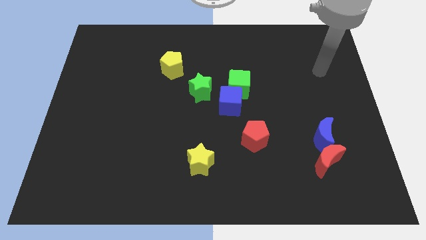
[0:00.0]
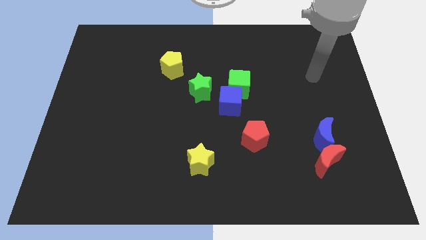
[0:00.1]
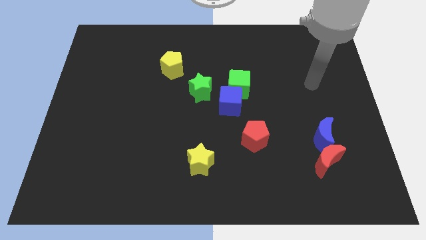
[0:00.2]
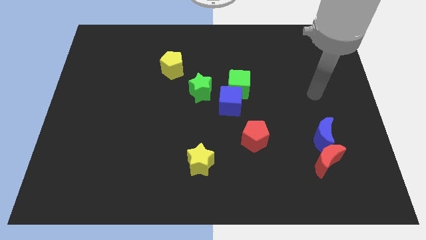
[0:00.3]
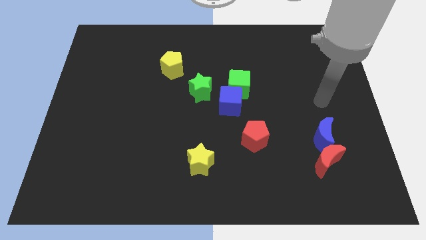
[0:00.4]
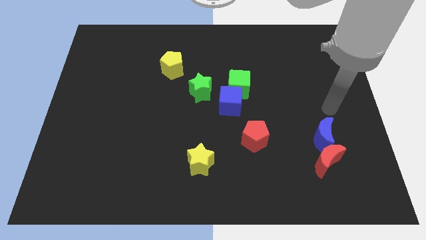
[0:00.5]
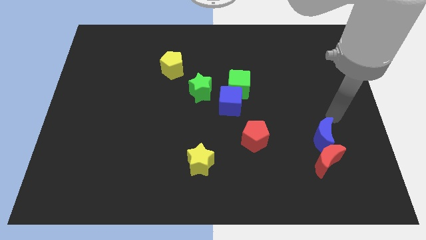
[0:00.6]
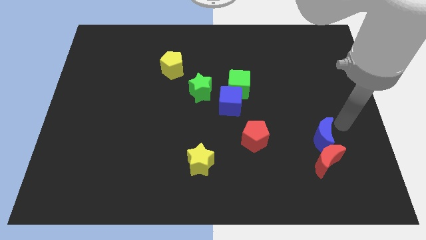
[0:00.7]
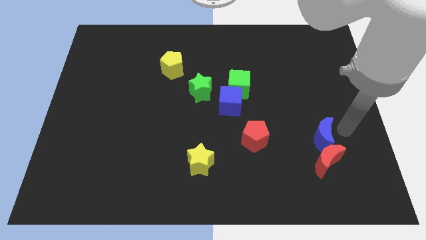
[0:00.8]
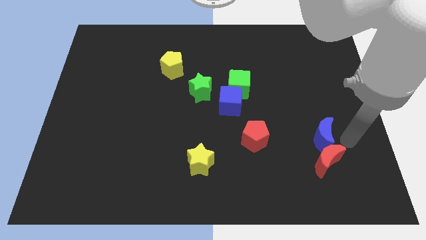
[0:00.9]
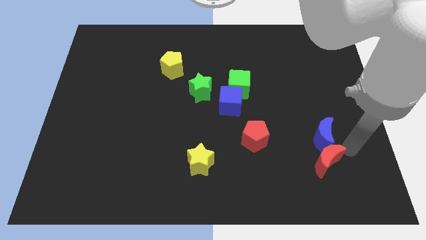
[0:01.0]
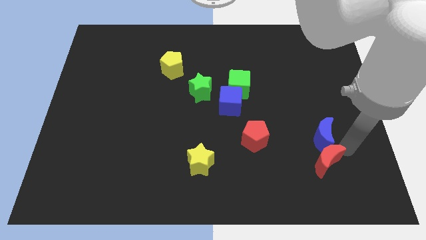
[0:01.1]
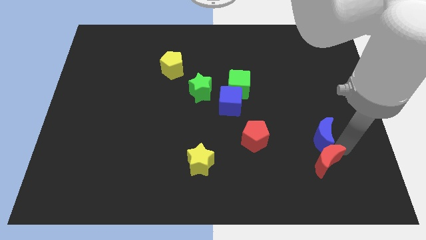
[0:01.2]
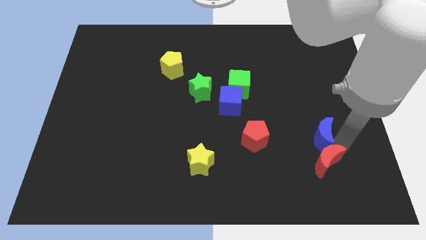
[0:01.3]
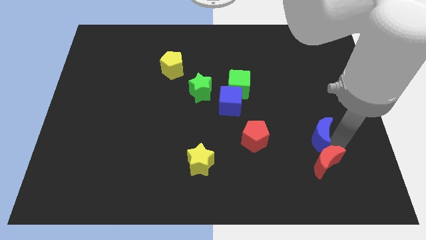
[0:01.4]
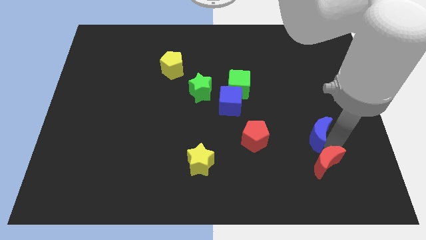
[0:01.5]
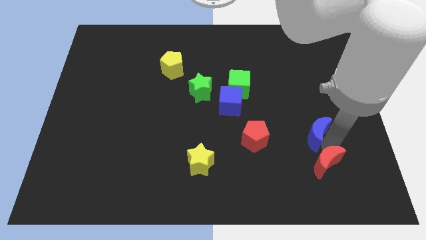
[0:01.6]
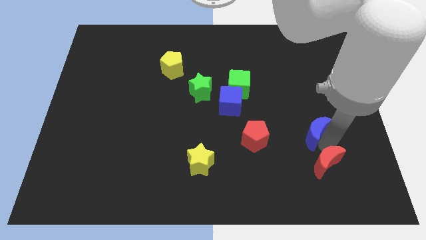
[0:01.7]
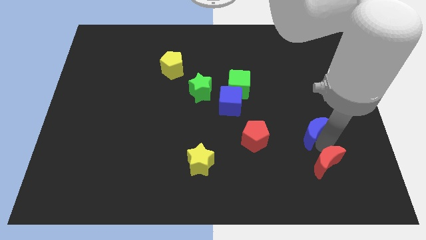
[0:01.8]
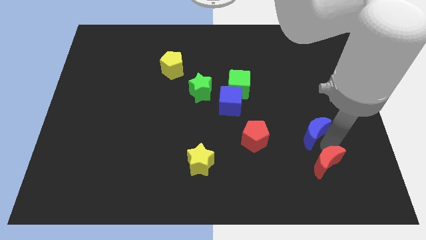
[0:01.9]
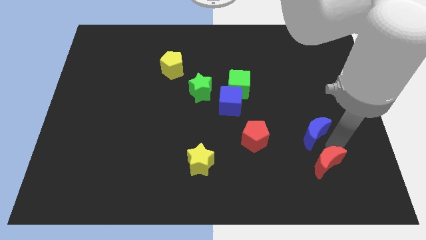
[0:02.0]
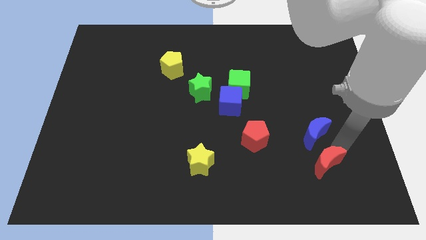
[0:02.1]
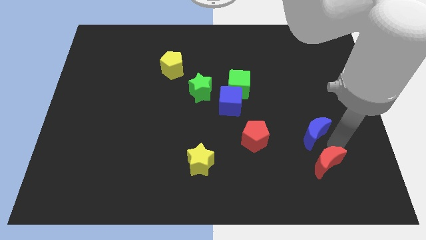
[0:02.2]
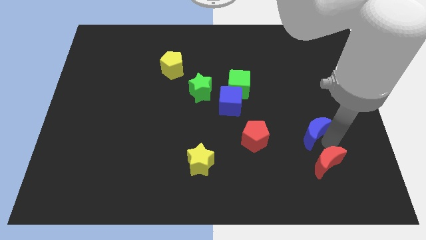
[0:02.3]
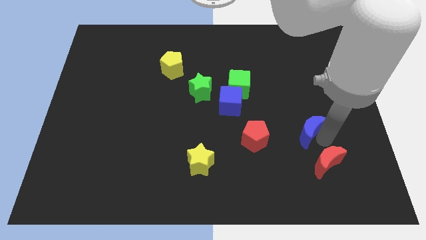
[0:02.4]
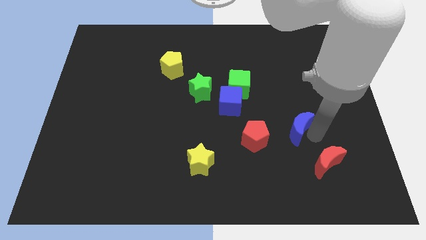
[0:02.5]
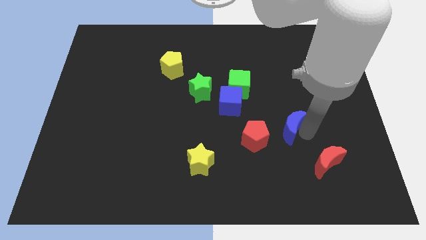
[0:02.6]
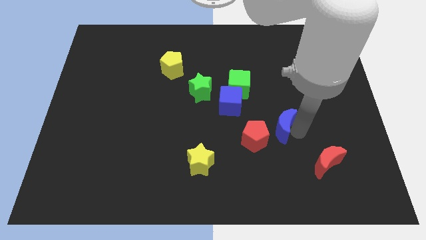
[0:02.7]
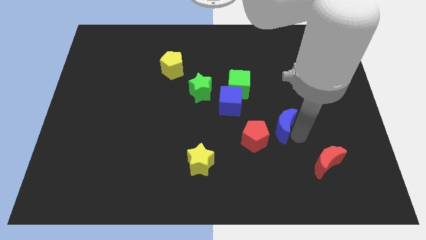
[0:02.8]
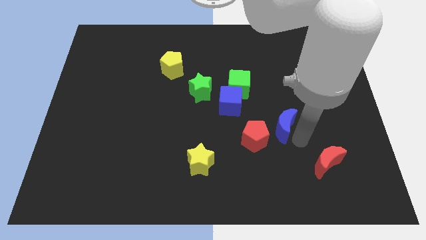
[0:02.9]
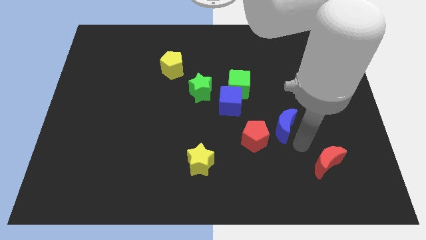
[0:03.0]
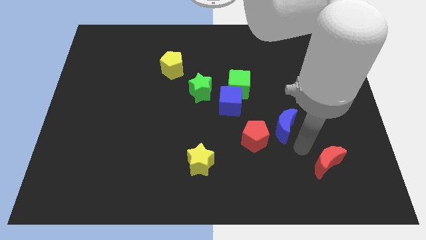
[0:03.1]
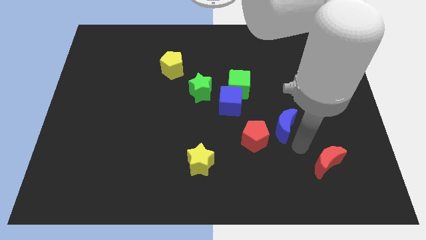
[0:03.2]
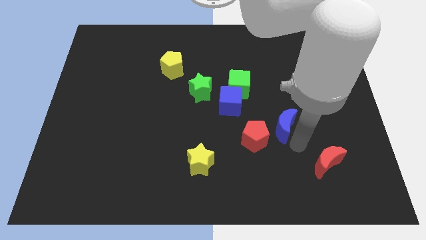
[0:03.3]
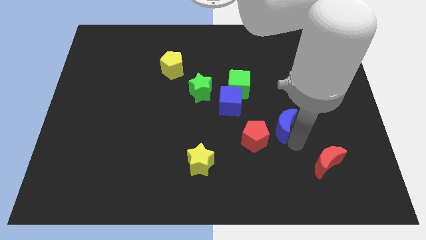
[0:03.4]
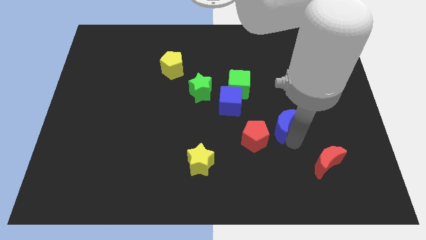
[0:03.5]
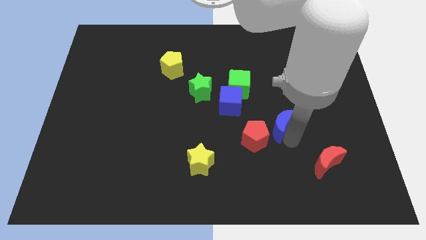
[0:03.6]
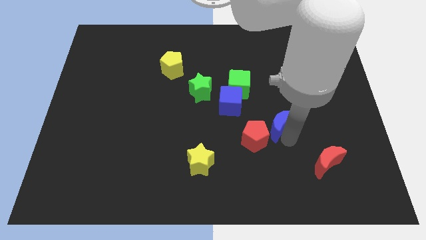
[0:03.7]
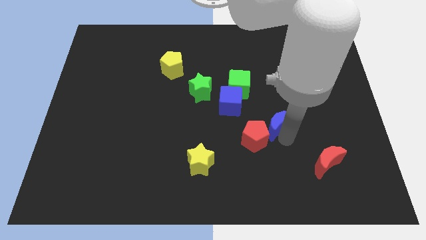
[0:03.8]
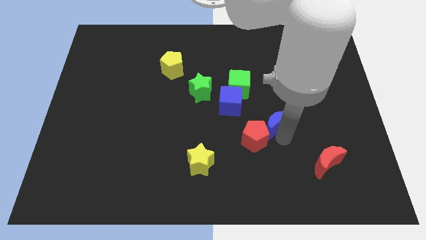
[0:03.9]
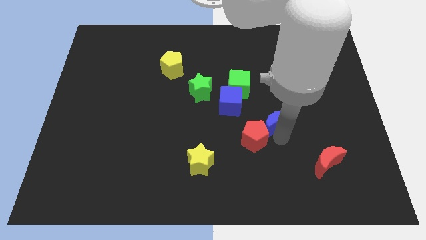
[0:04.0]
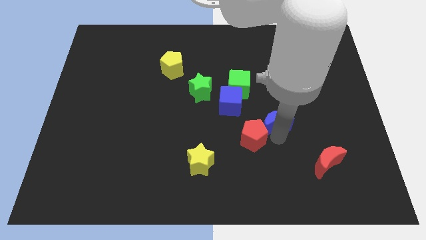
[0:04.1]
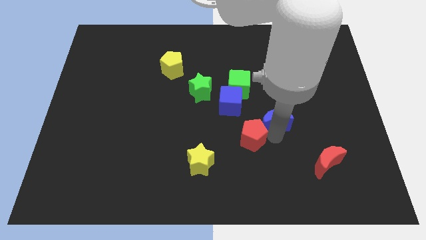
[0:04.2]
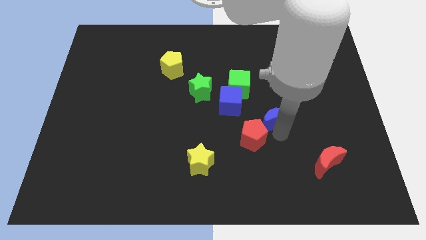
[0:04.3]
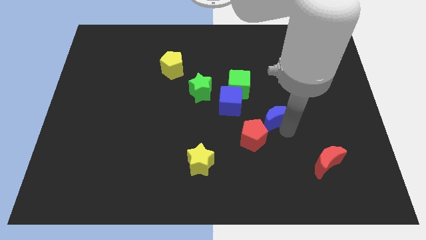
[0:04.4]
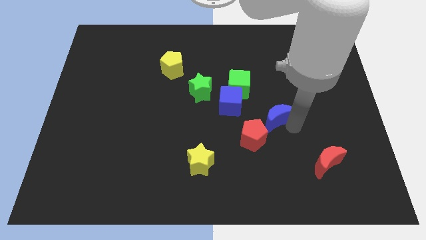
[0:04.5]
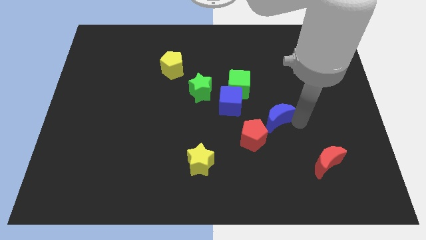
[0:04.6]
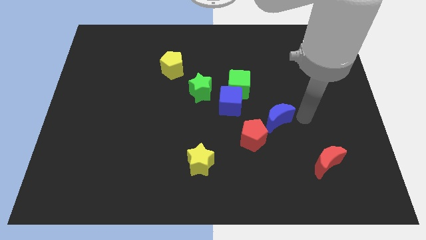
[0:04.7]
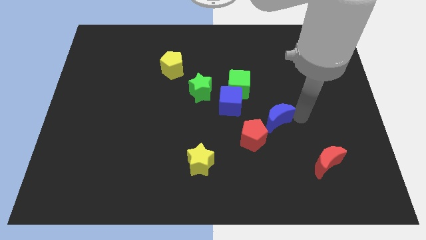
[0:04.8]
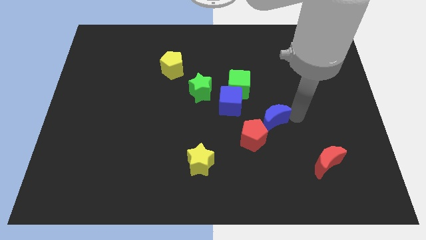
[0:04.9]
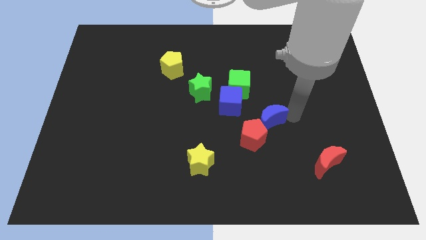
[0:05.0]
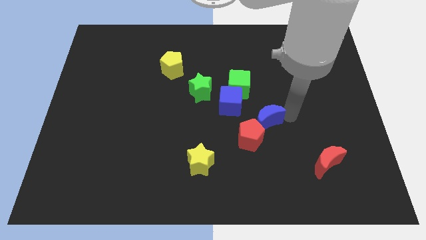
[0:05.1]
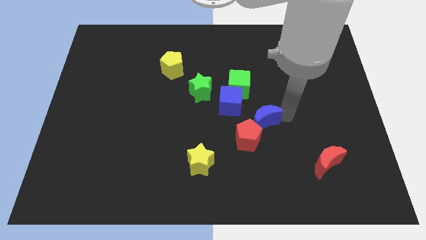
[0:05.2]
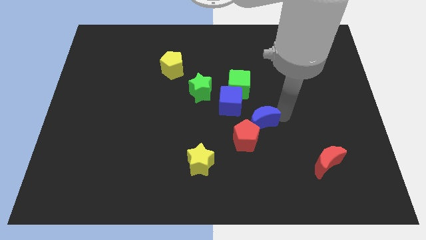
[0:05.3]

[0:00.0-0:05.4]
push the blue moon to the bottom side of the green cube

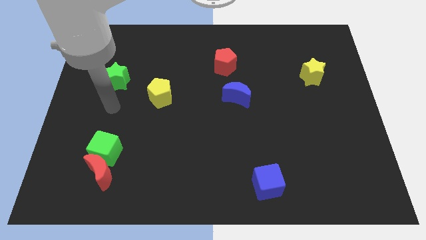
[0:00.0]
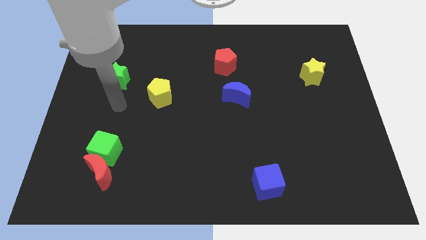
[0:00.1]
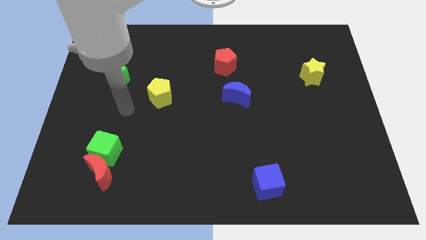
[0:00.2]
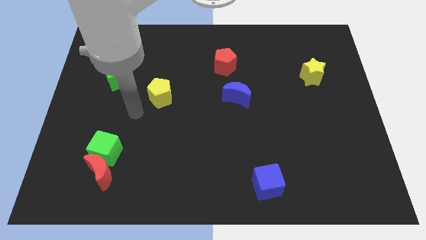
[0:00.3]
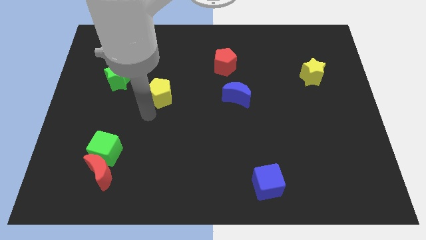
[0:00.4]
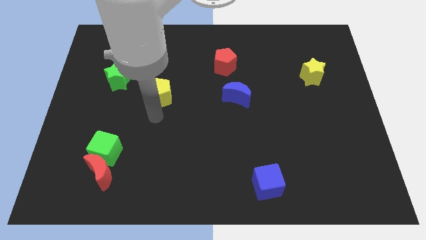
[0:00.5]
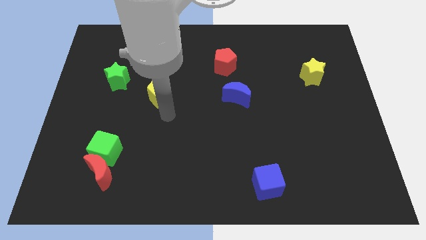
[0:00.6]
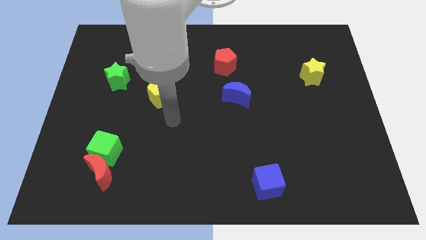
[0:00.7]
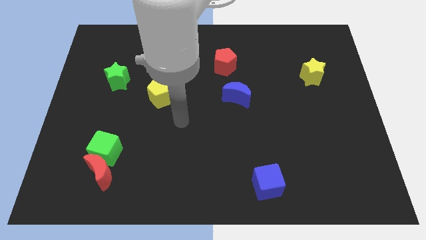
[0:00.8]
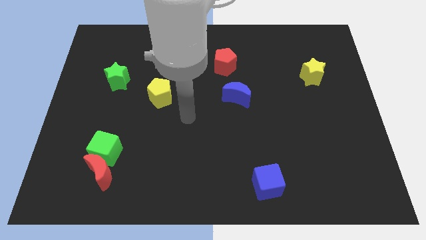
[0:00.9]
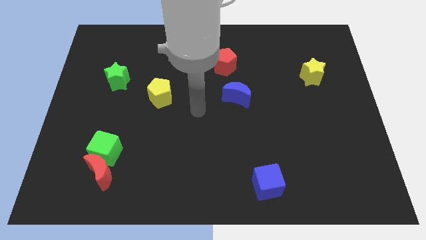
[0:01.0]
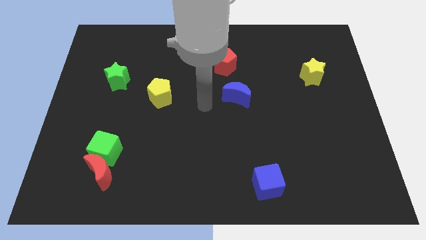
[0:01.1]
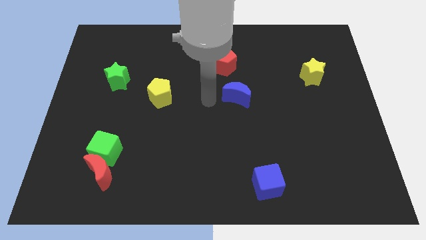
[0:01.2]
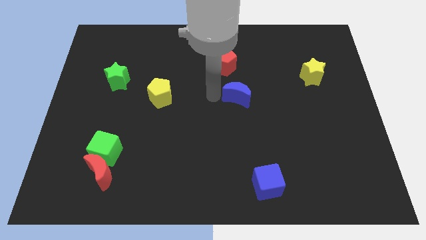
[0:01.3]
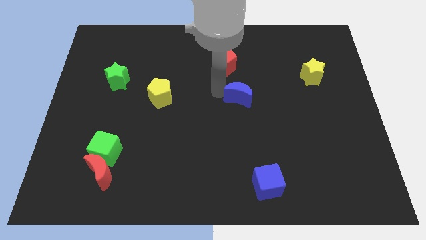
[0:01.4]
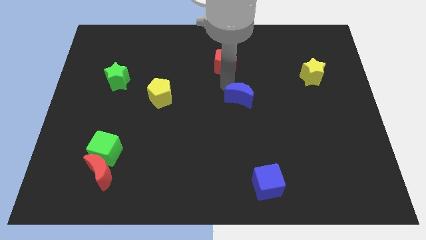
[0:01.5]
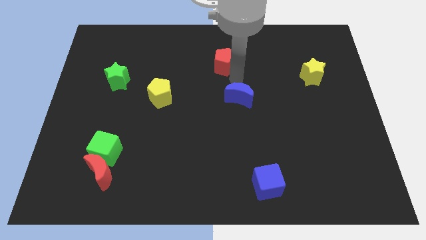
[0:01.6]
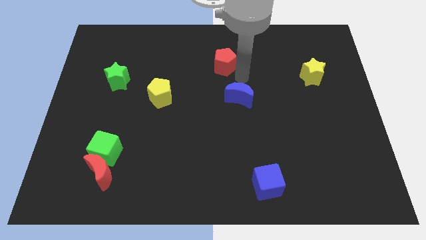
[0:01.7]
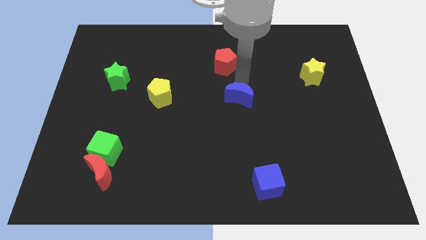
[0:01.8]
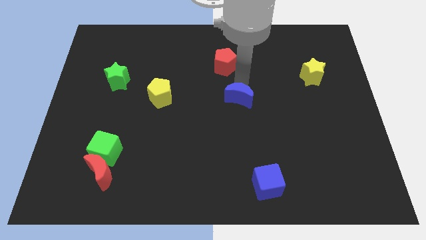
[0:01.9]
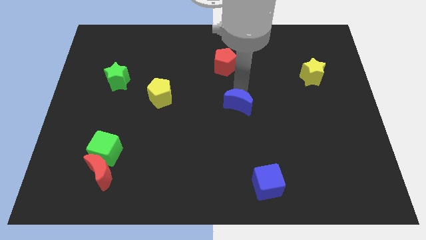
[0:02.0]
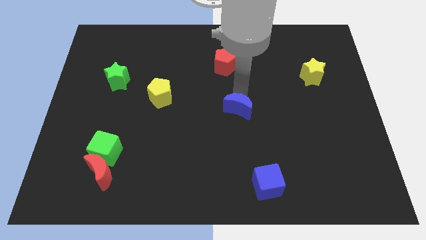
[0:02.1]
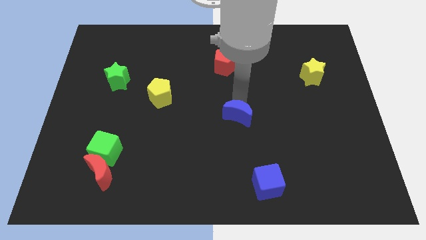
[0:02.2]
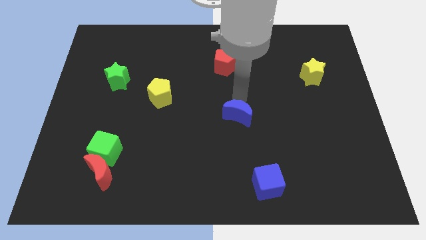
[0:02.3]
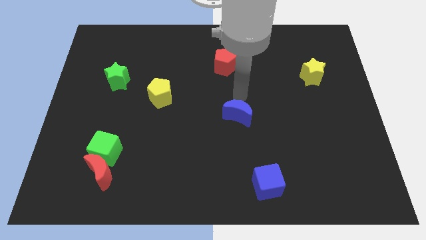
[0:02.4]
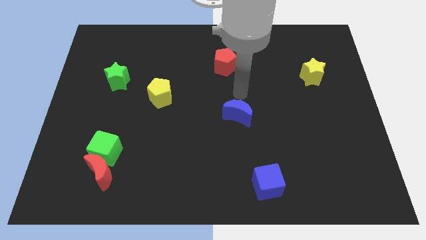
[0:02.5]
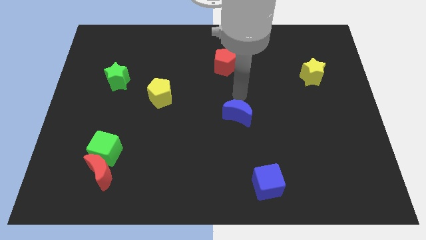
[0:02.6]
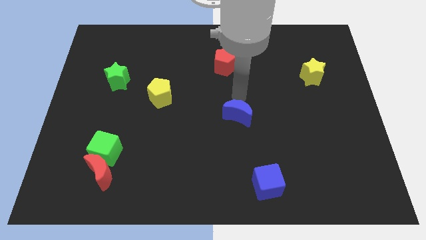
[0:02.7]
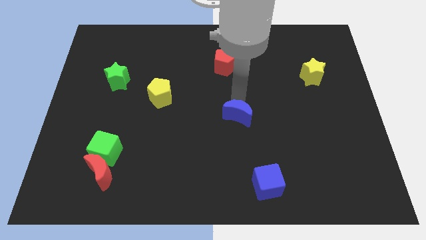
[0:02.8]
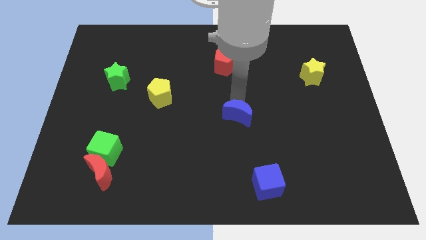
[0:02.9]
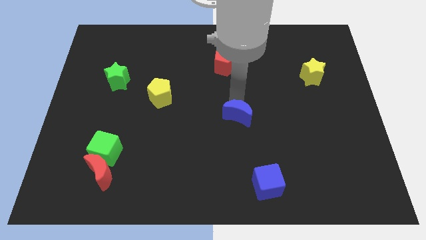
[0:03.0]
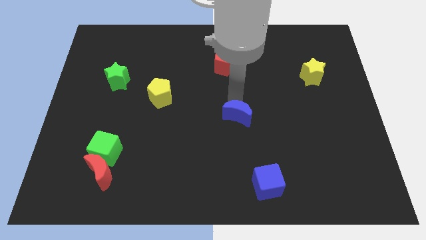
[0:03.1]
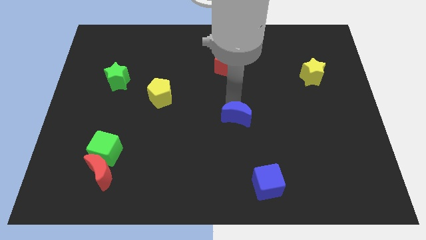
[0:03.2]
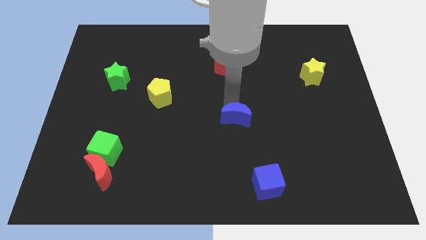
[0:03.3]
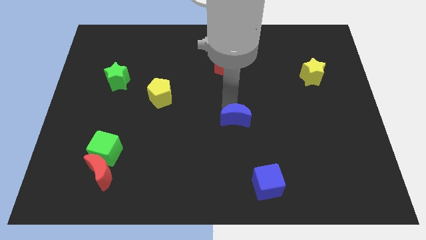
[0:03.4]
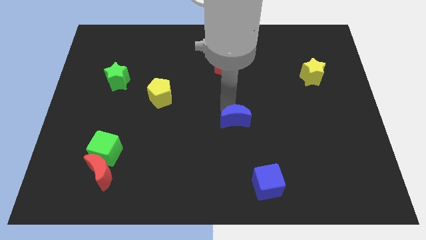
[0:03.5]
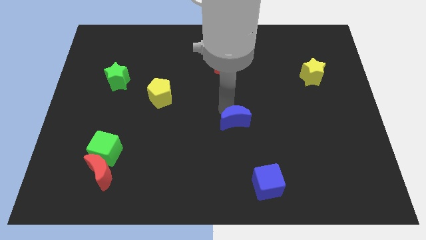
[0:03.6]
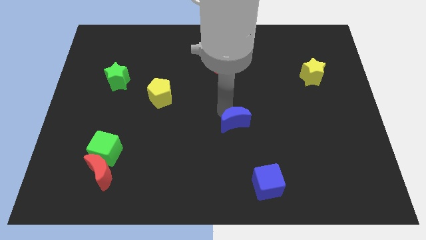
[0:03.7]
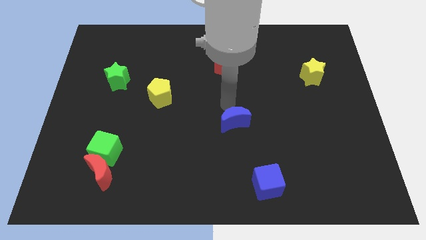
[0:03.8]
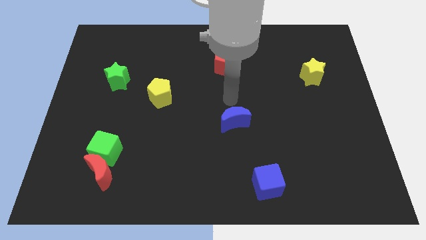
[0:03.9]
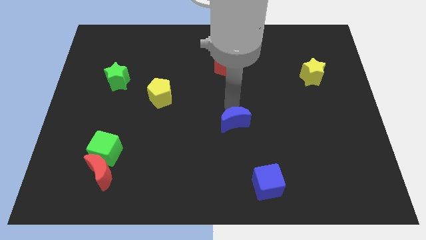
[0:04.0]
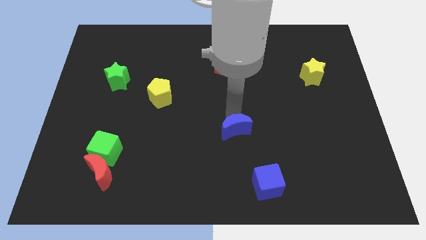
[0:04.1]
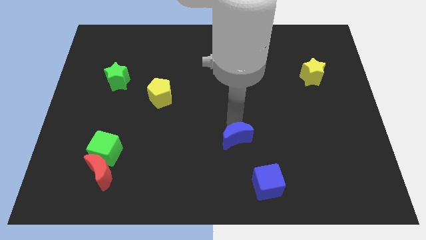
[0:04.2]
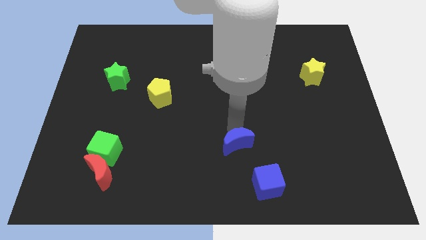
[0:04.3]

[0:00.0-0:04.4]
push the blue moon to the top left side of the blue cube
